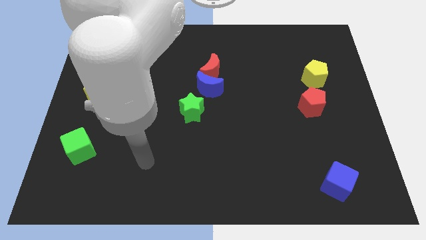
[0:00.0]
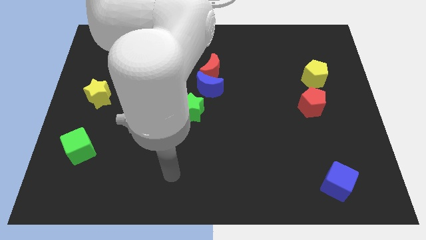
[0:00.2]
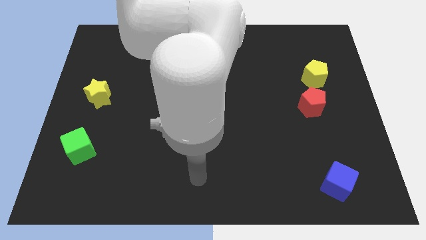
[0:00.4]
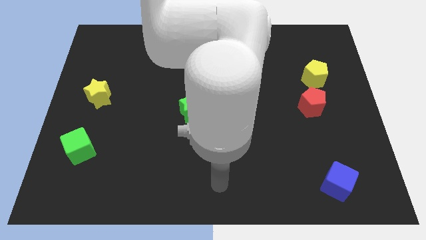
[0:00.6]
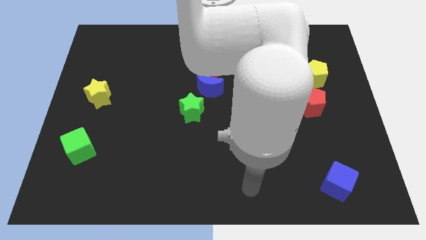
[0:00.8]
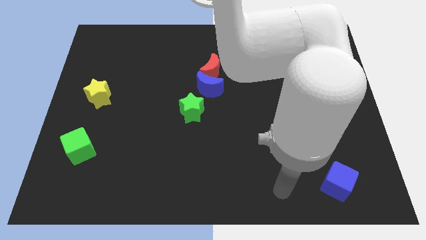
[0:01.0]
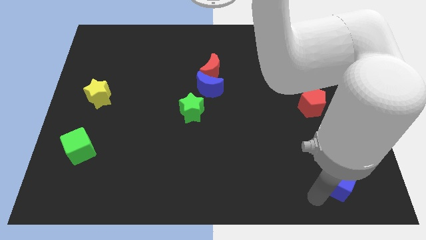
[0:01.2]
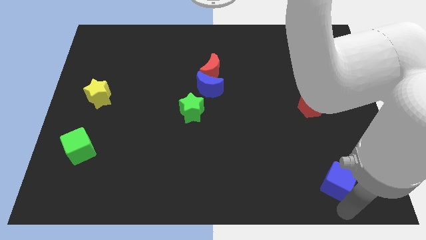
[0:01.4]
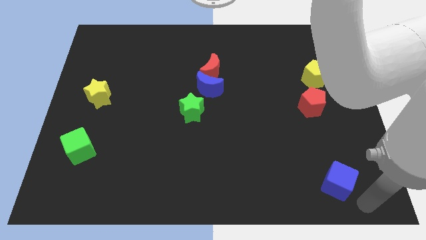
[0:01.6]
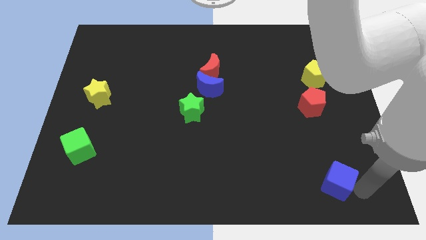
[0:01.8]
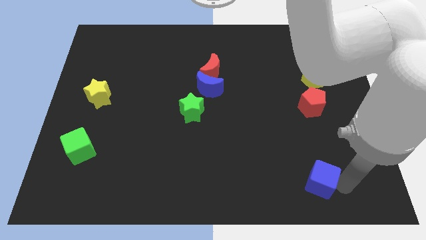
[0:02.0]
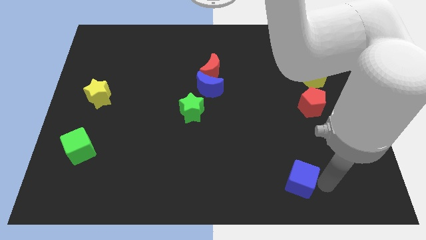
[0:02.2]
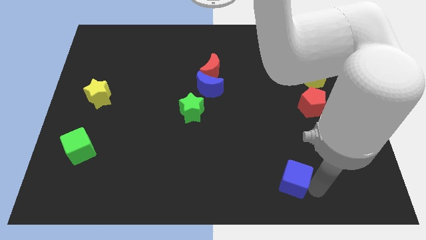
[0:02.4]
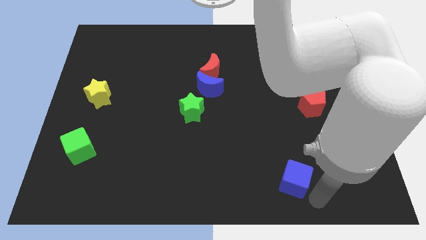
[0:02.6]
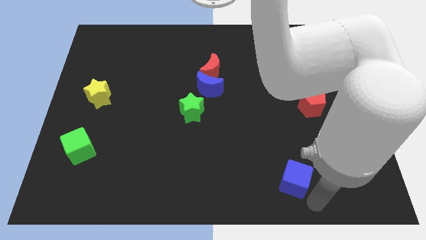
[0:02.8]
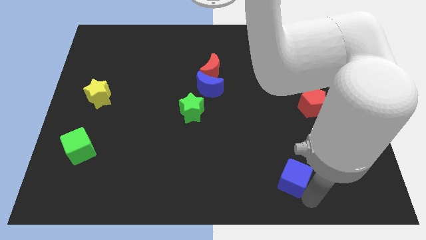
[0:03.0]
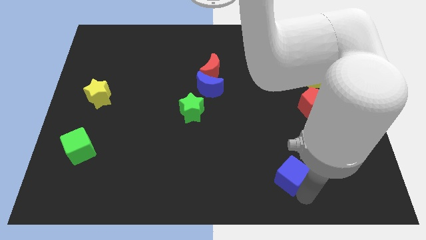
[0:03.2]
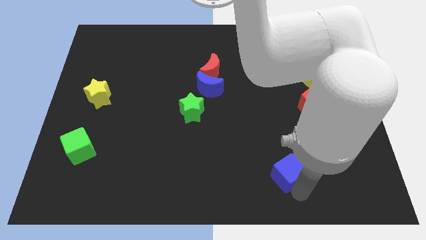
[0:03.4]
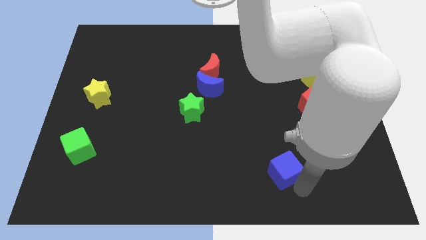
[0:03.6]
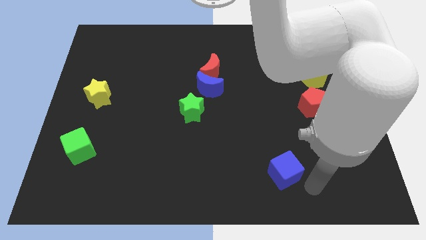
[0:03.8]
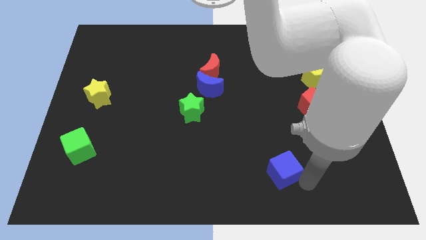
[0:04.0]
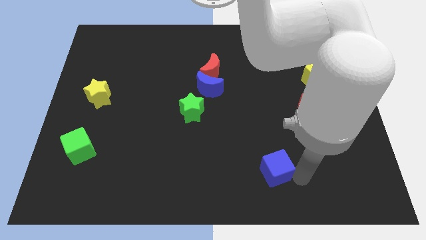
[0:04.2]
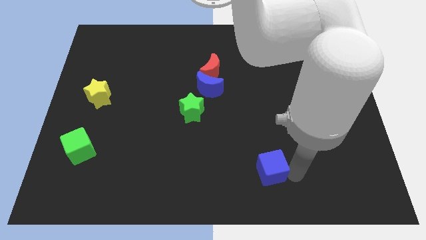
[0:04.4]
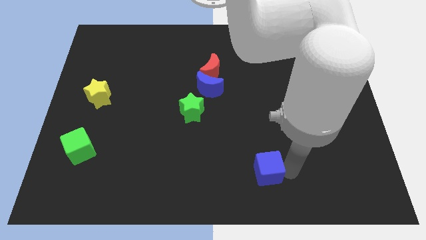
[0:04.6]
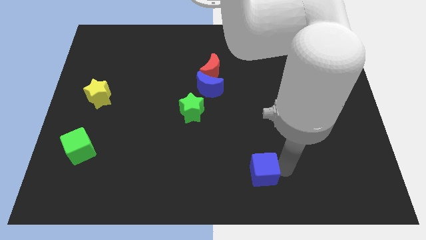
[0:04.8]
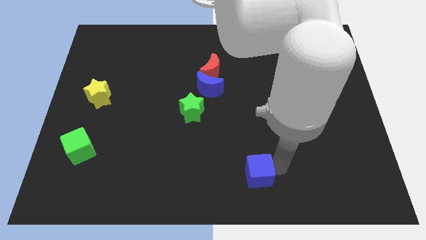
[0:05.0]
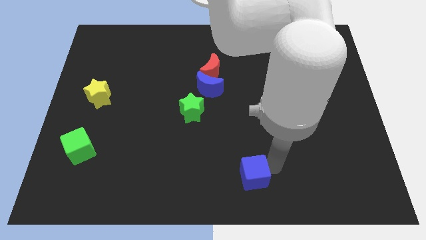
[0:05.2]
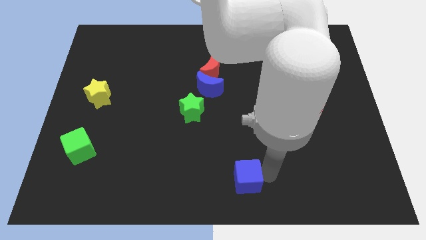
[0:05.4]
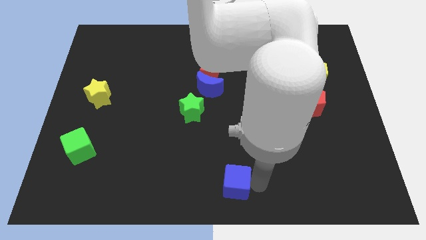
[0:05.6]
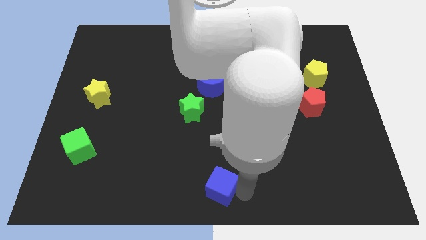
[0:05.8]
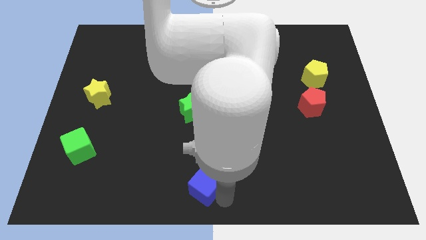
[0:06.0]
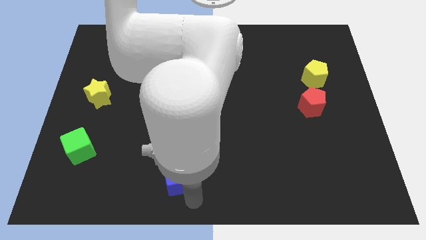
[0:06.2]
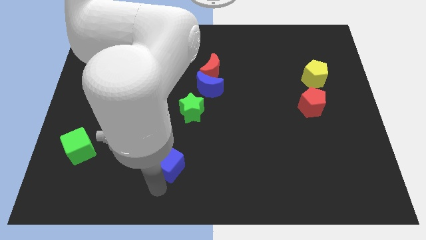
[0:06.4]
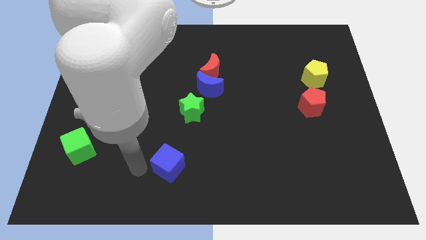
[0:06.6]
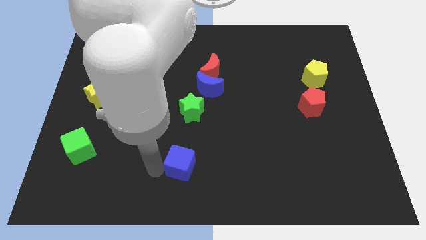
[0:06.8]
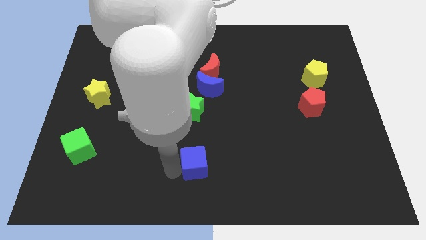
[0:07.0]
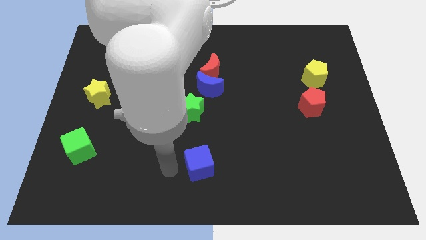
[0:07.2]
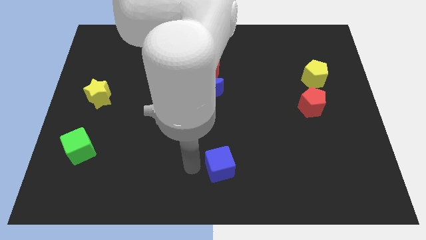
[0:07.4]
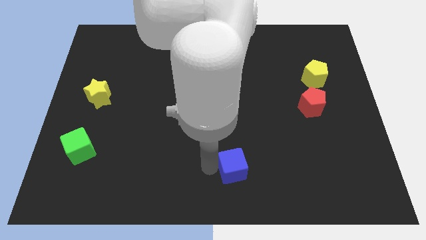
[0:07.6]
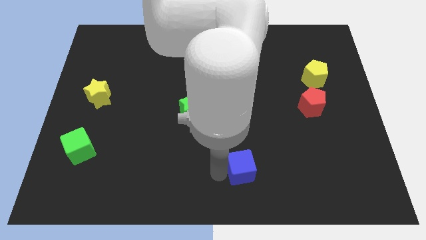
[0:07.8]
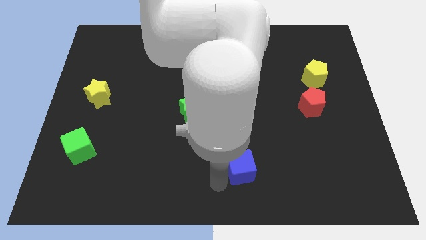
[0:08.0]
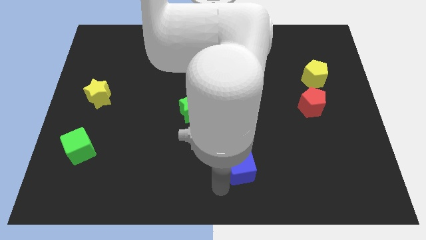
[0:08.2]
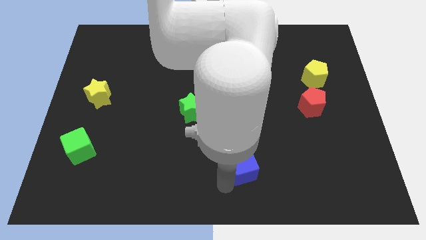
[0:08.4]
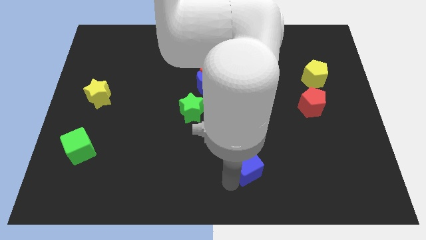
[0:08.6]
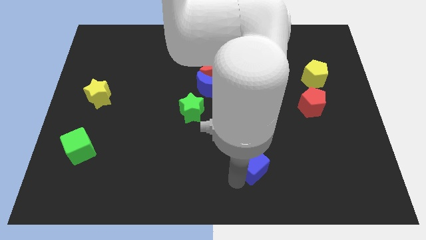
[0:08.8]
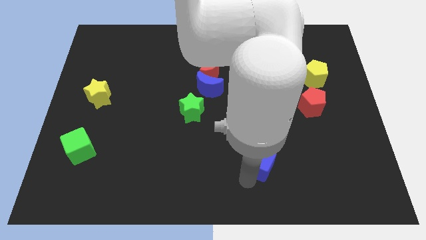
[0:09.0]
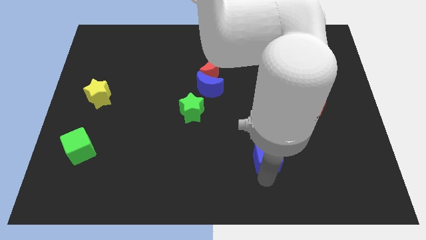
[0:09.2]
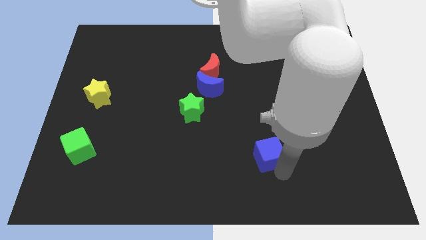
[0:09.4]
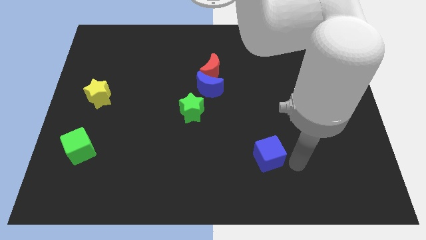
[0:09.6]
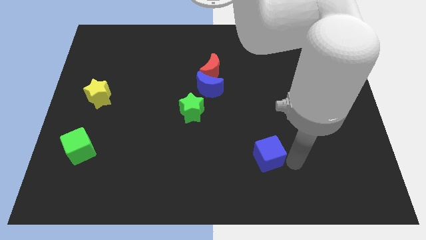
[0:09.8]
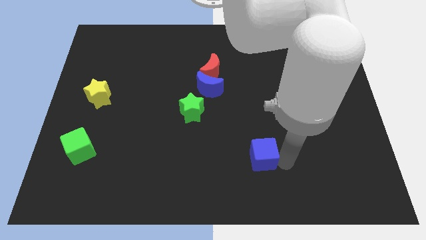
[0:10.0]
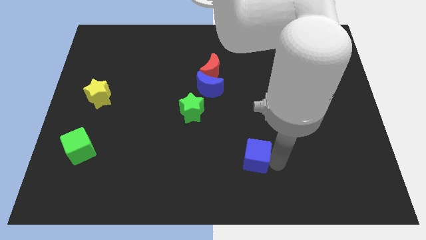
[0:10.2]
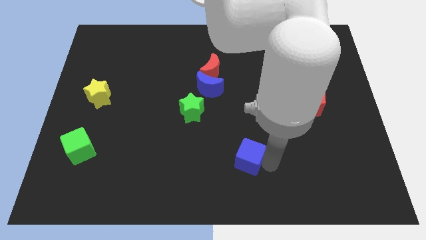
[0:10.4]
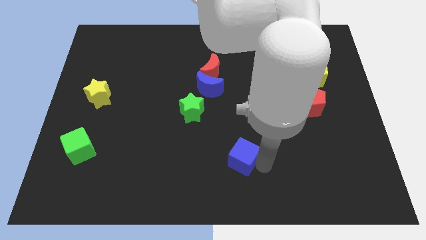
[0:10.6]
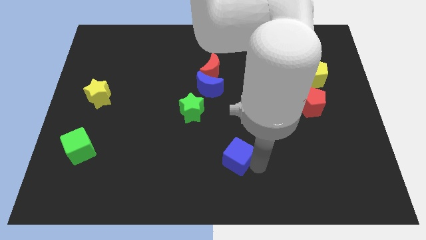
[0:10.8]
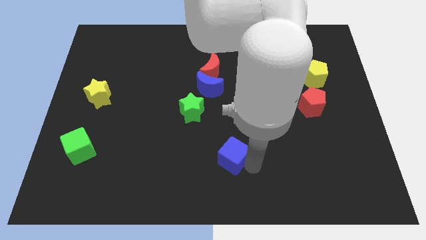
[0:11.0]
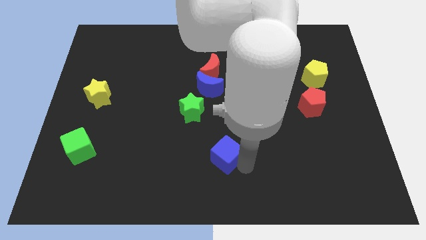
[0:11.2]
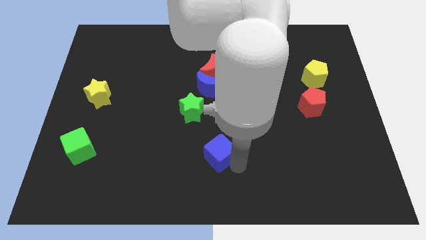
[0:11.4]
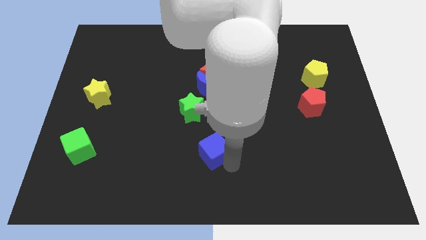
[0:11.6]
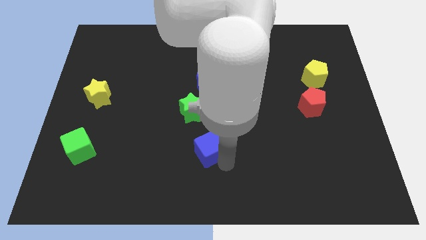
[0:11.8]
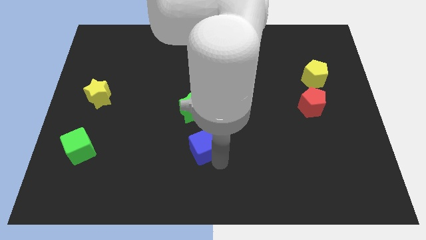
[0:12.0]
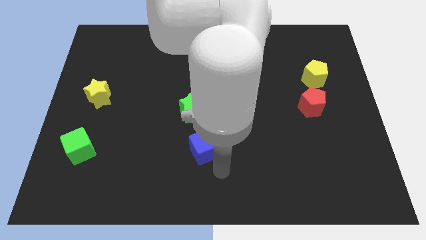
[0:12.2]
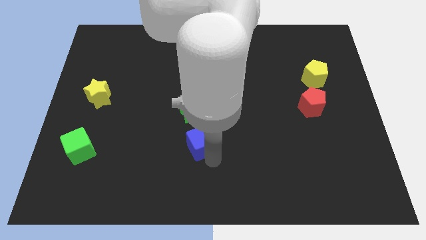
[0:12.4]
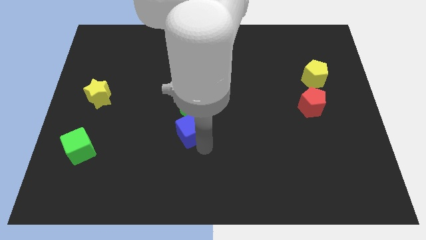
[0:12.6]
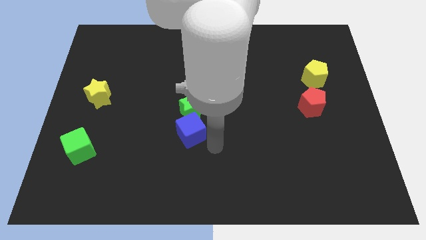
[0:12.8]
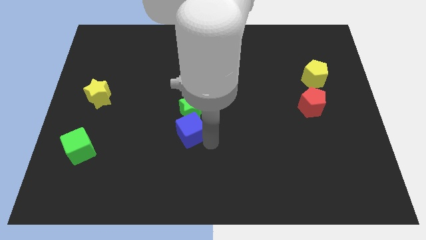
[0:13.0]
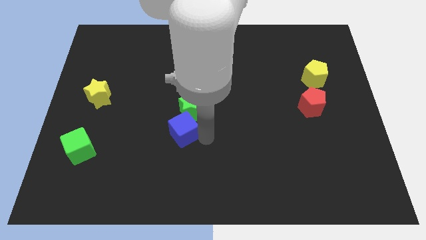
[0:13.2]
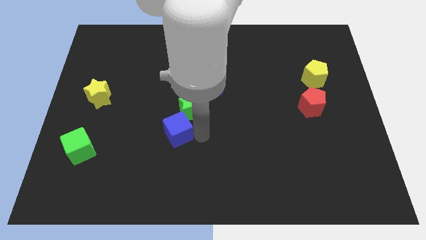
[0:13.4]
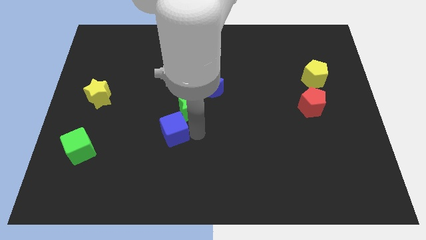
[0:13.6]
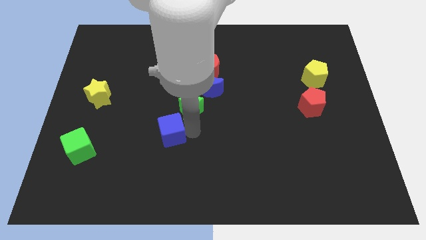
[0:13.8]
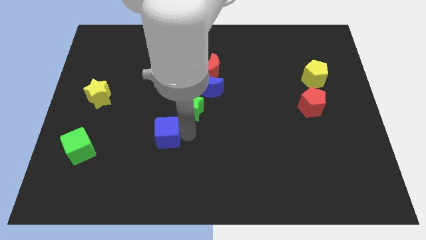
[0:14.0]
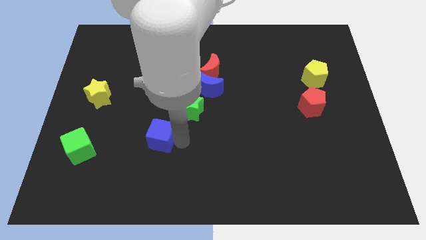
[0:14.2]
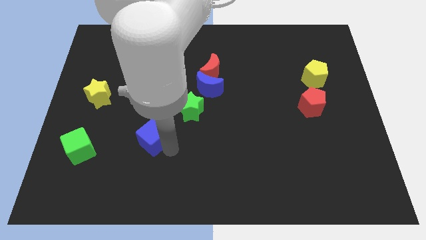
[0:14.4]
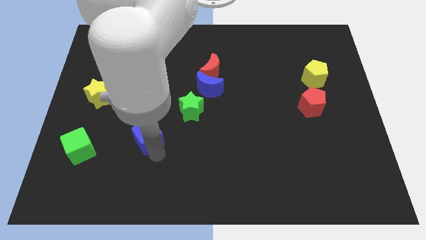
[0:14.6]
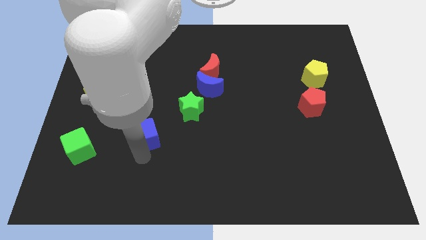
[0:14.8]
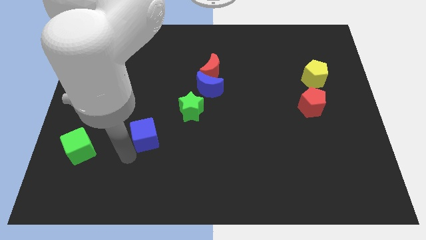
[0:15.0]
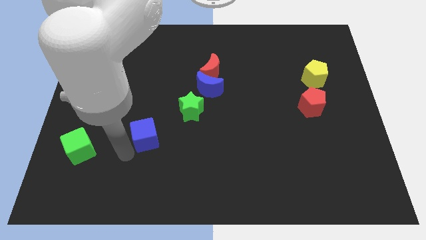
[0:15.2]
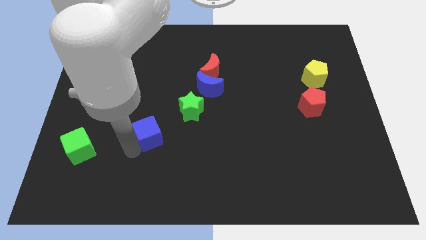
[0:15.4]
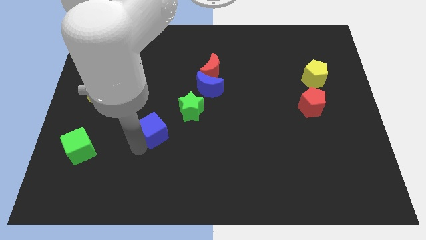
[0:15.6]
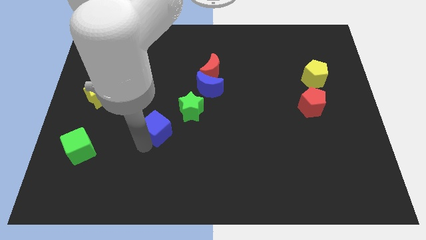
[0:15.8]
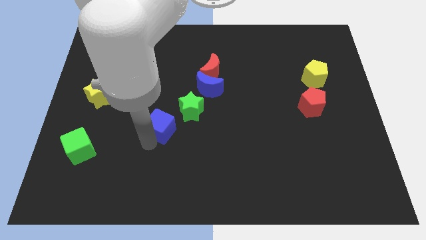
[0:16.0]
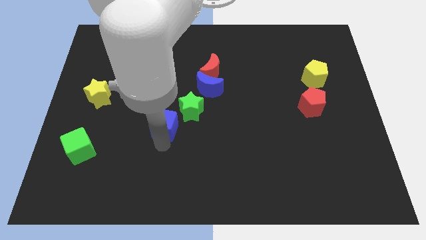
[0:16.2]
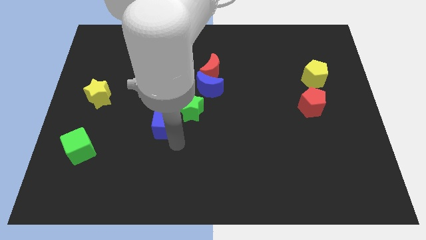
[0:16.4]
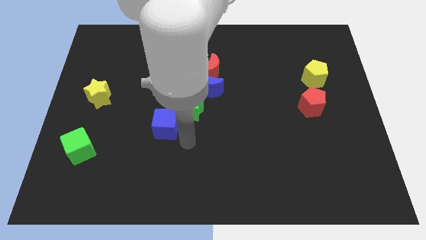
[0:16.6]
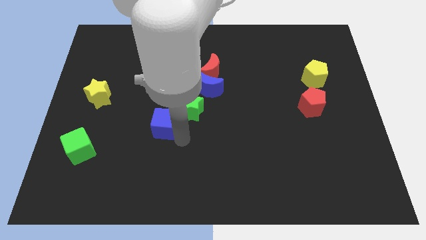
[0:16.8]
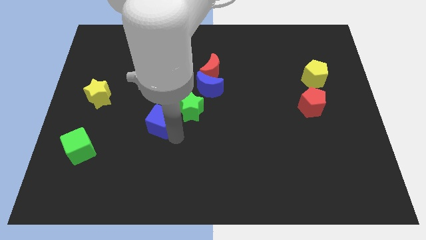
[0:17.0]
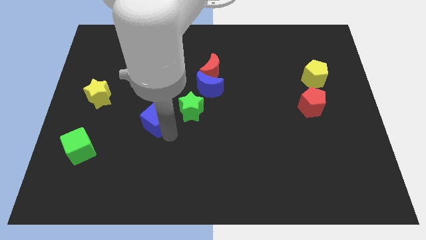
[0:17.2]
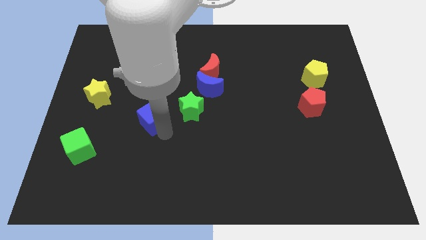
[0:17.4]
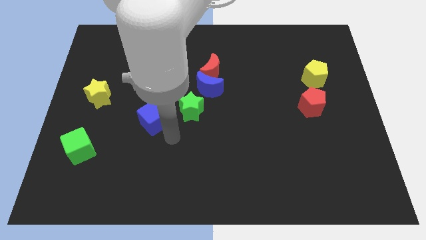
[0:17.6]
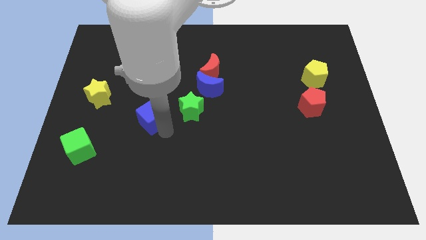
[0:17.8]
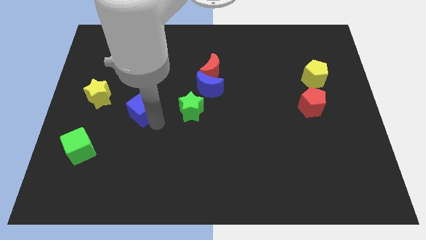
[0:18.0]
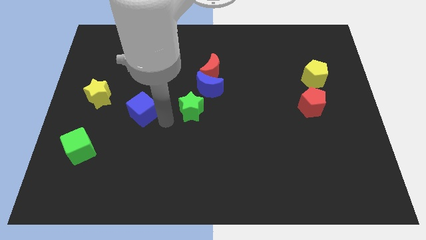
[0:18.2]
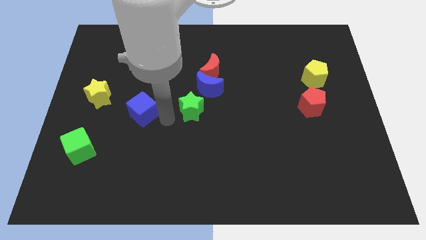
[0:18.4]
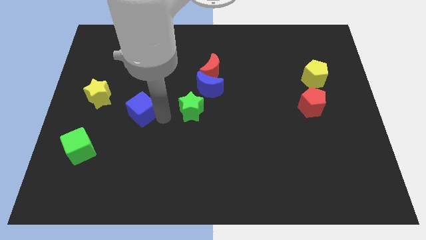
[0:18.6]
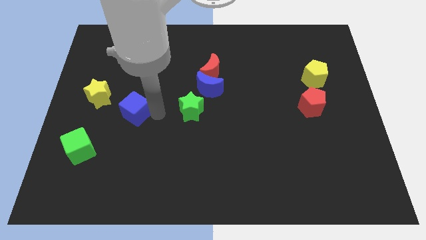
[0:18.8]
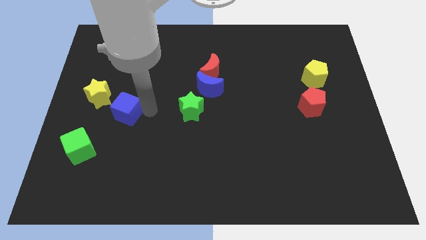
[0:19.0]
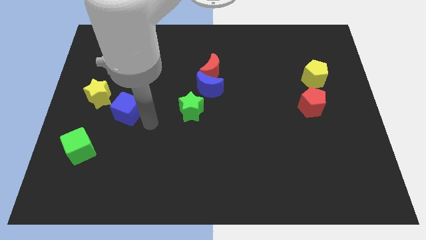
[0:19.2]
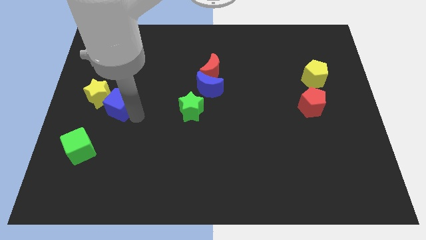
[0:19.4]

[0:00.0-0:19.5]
move the blue cube next to the yellow star
